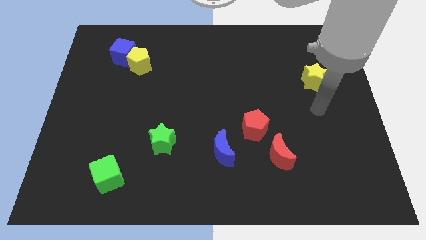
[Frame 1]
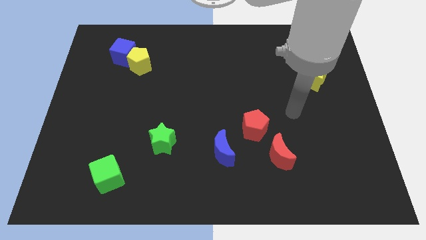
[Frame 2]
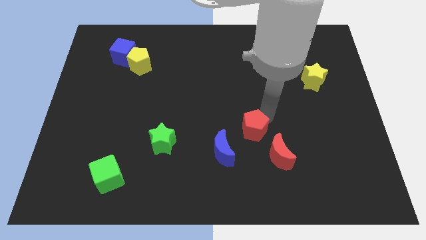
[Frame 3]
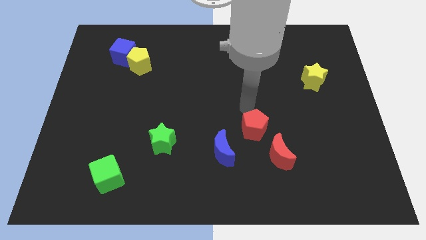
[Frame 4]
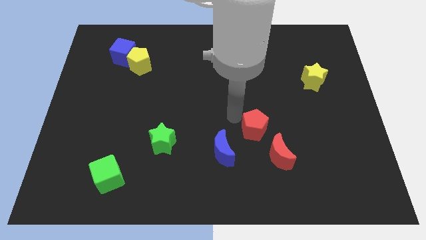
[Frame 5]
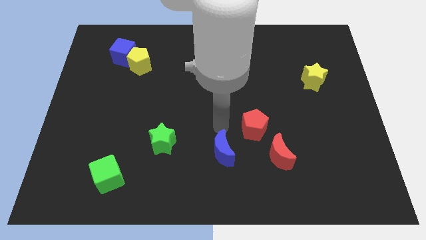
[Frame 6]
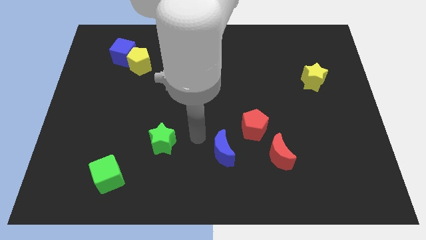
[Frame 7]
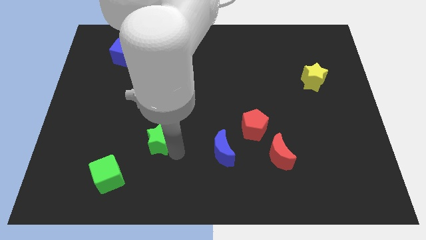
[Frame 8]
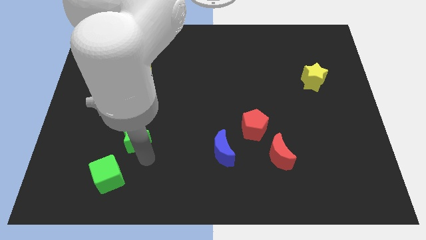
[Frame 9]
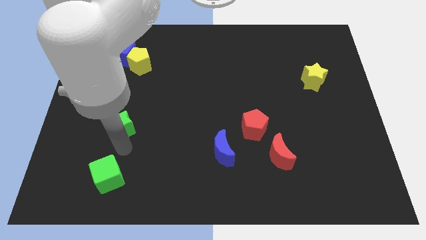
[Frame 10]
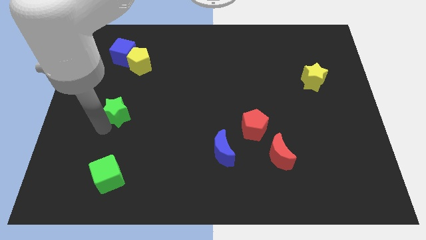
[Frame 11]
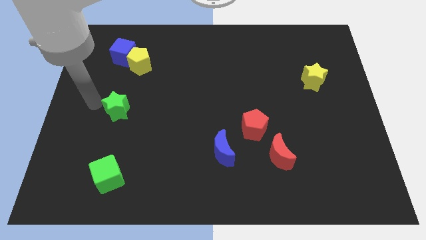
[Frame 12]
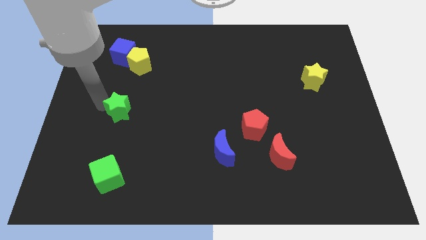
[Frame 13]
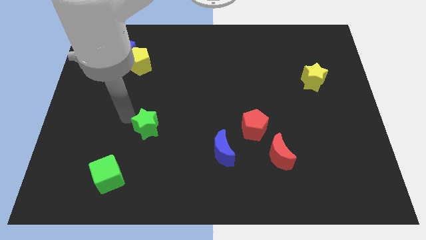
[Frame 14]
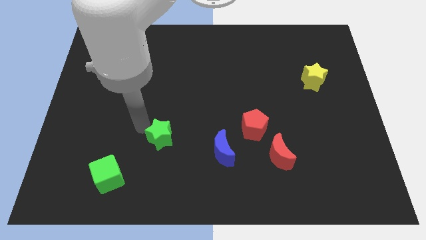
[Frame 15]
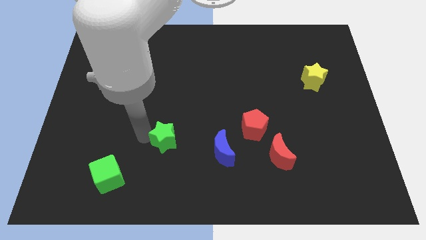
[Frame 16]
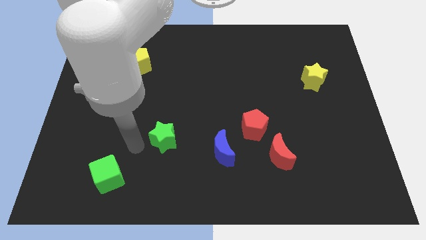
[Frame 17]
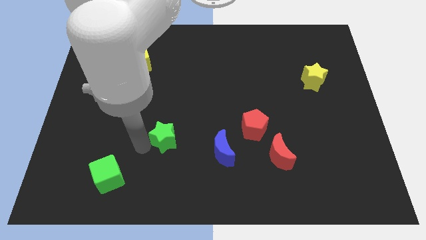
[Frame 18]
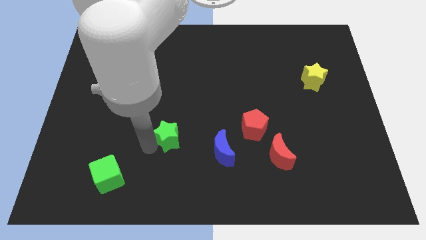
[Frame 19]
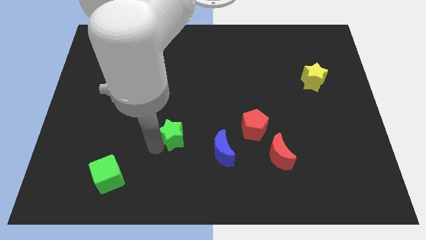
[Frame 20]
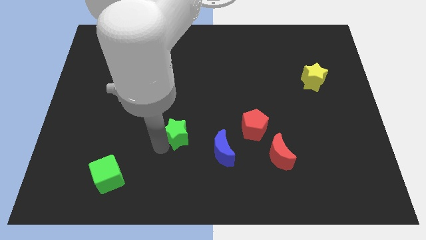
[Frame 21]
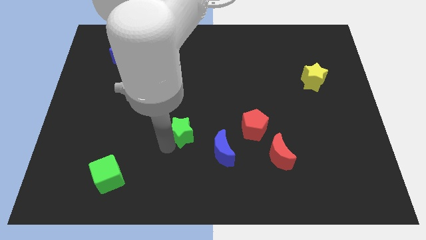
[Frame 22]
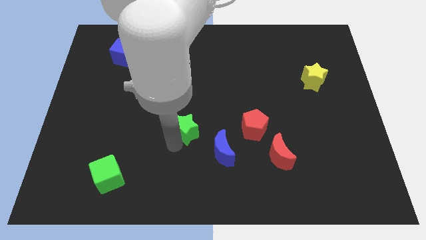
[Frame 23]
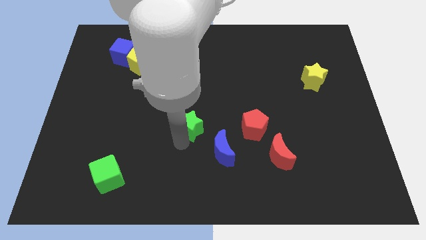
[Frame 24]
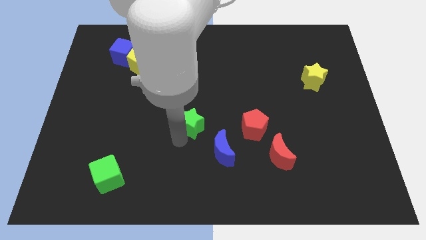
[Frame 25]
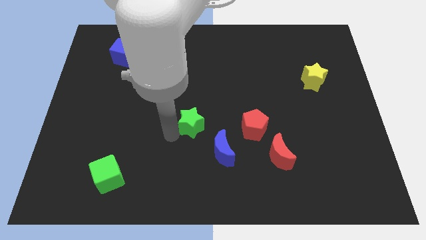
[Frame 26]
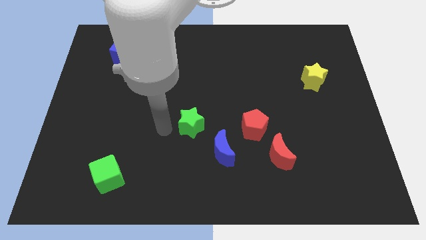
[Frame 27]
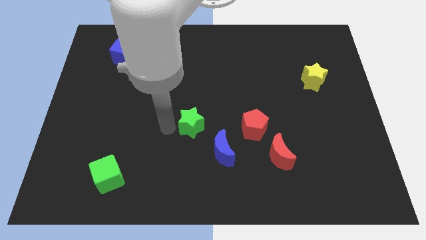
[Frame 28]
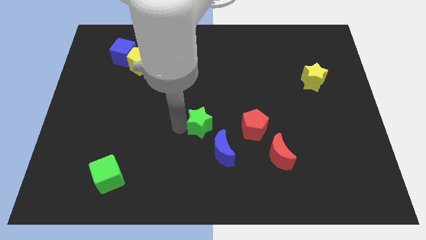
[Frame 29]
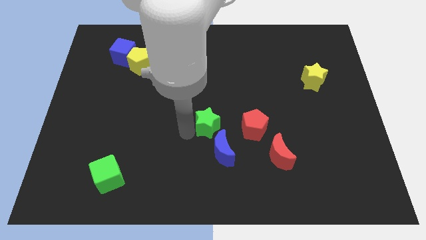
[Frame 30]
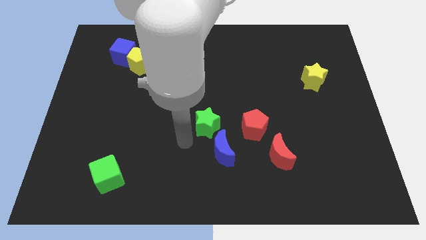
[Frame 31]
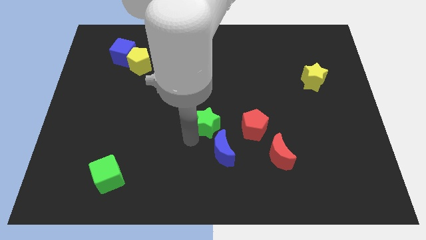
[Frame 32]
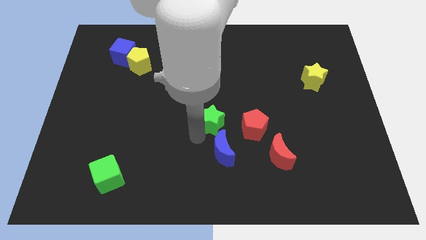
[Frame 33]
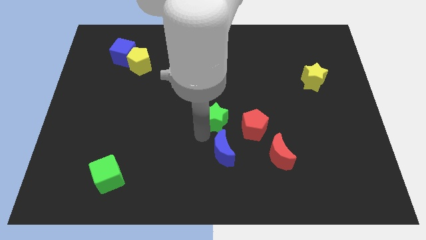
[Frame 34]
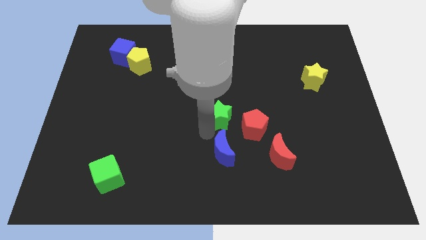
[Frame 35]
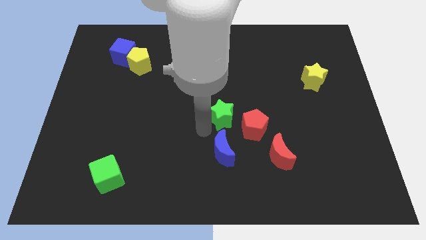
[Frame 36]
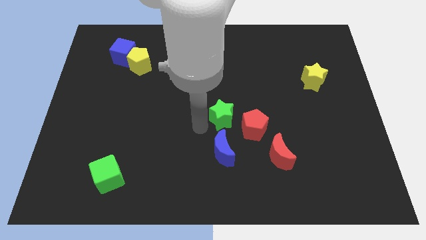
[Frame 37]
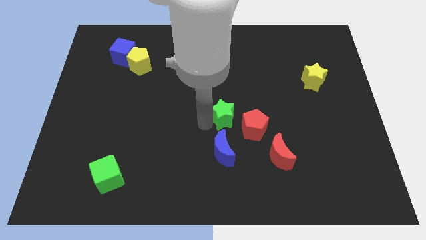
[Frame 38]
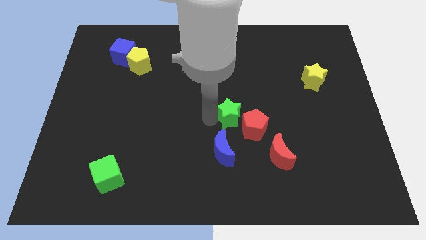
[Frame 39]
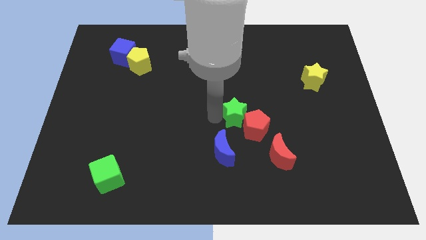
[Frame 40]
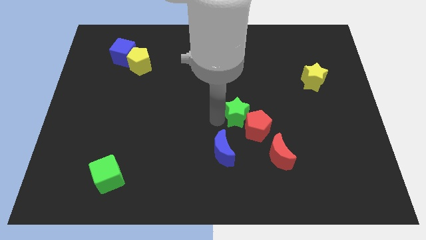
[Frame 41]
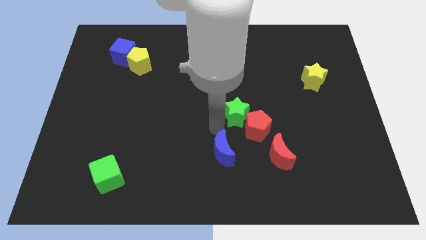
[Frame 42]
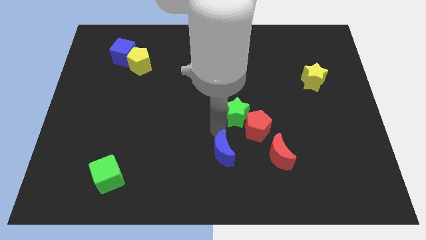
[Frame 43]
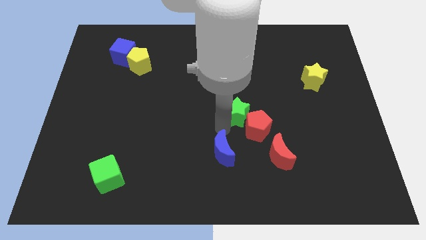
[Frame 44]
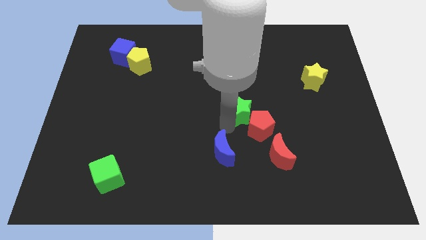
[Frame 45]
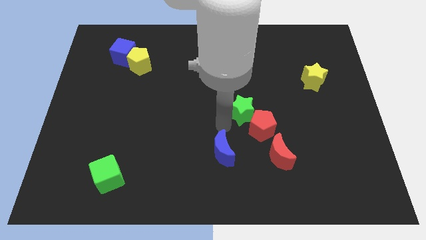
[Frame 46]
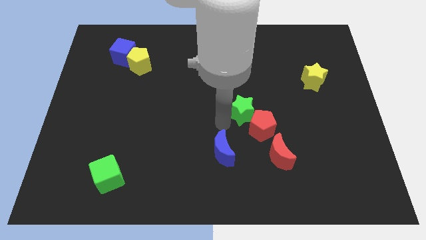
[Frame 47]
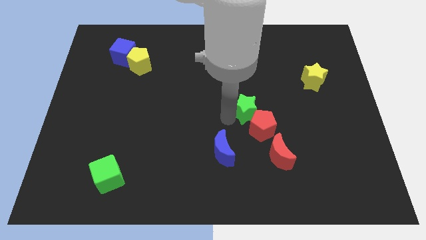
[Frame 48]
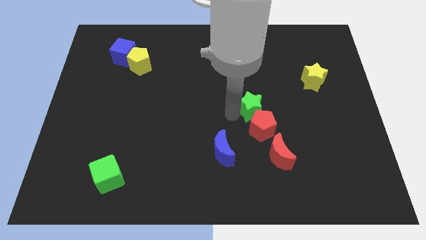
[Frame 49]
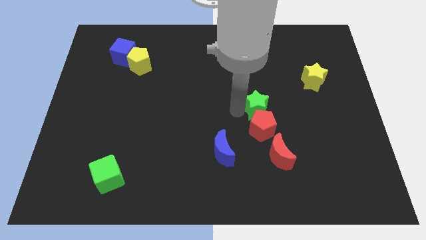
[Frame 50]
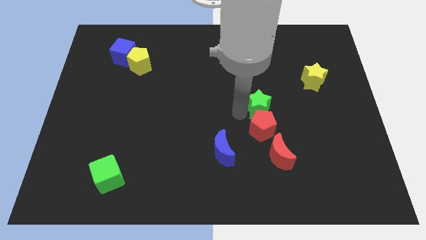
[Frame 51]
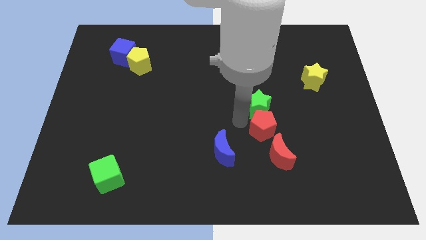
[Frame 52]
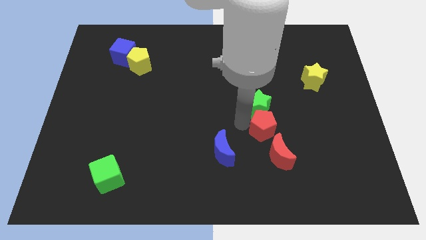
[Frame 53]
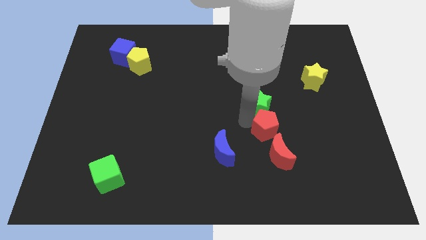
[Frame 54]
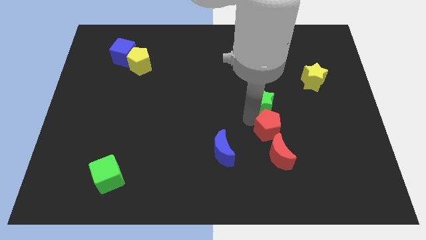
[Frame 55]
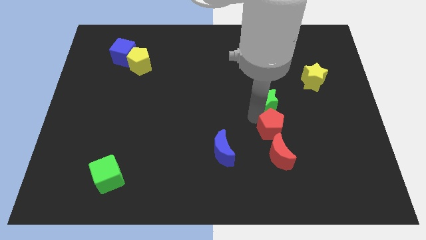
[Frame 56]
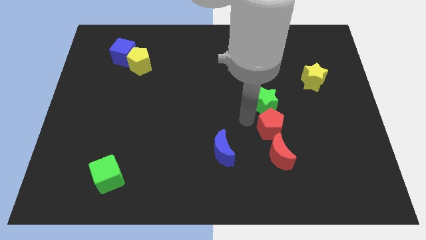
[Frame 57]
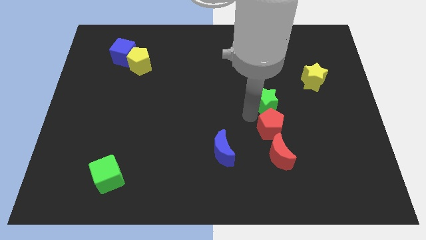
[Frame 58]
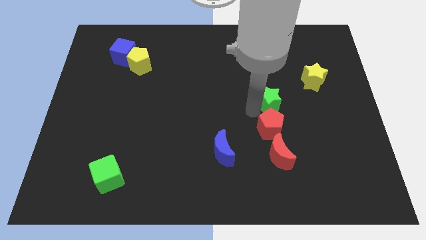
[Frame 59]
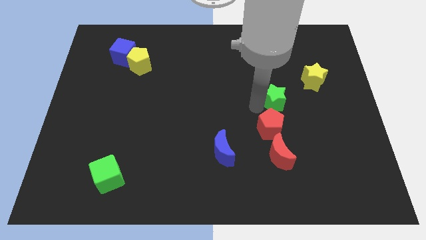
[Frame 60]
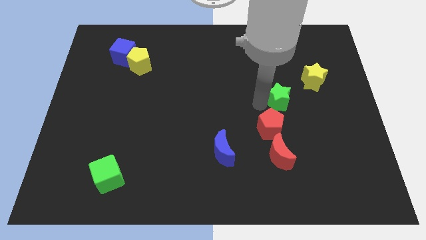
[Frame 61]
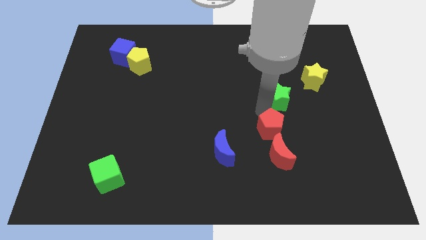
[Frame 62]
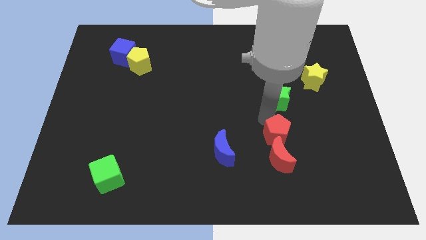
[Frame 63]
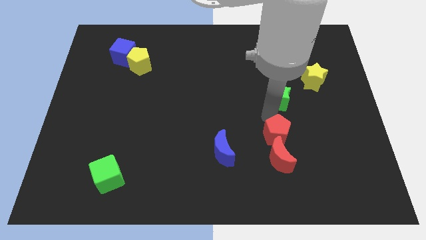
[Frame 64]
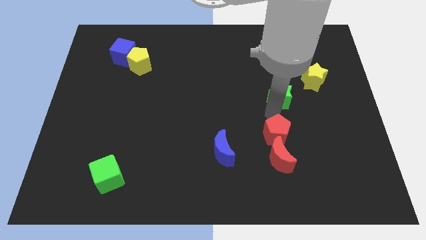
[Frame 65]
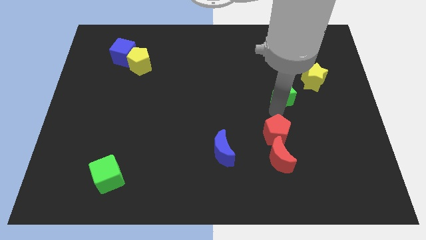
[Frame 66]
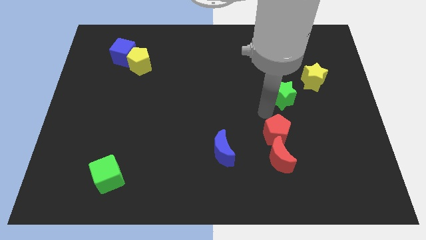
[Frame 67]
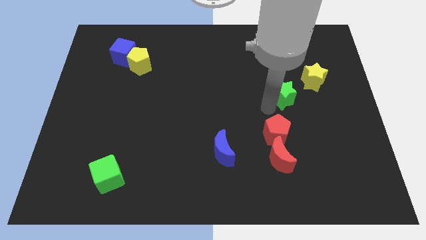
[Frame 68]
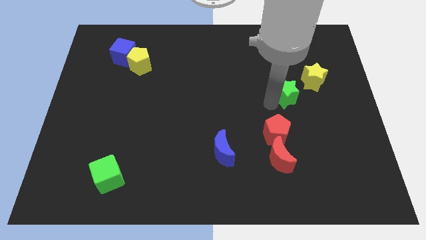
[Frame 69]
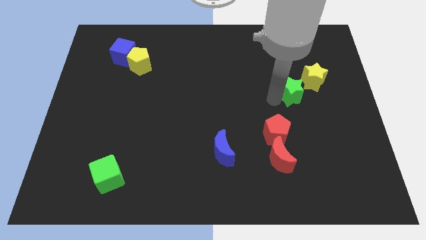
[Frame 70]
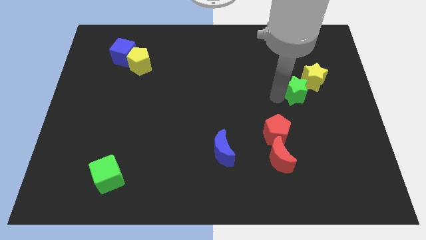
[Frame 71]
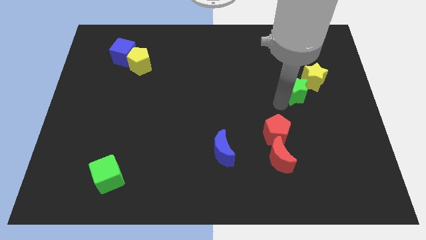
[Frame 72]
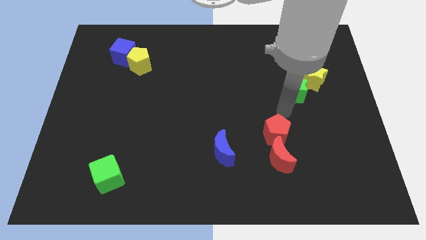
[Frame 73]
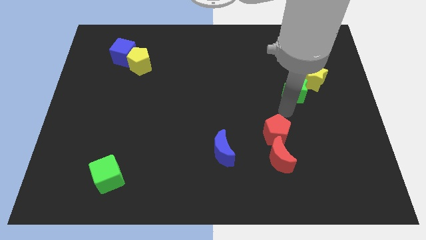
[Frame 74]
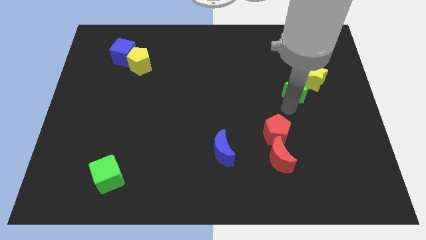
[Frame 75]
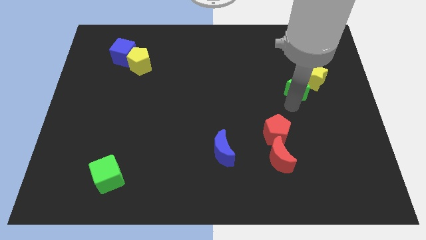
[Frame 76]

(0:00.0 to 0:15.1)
put the green star towards the yellow star
